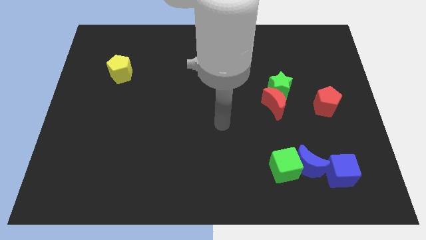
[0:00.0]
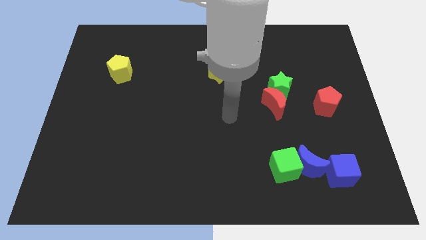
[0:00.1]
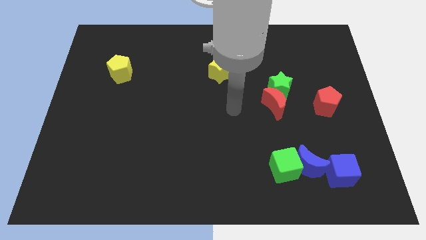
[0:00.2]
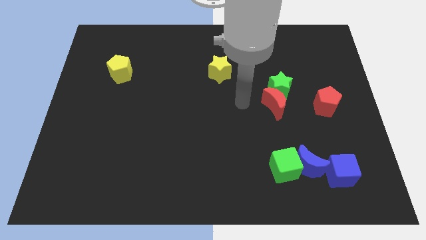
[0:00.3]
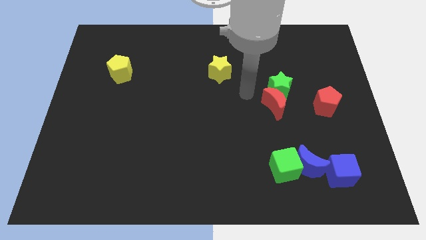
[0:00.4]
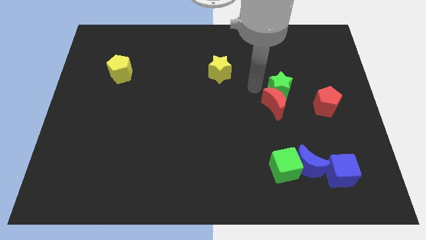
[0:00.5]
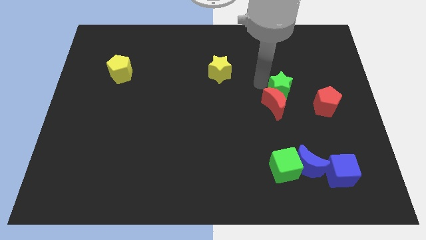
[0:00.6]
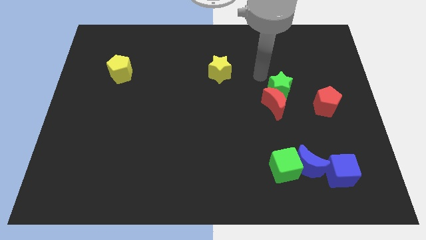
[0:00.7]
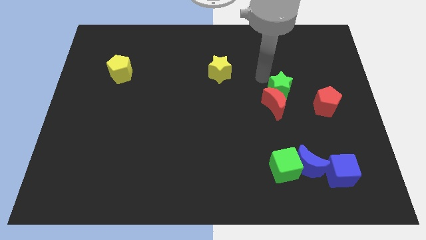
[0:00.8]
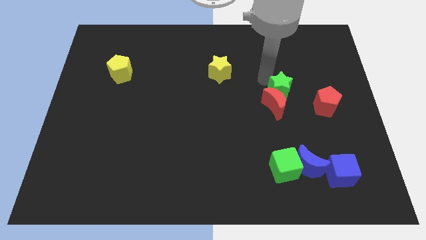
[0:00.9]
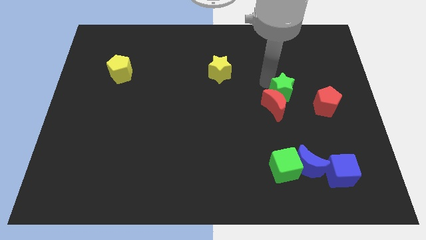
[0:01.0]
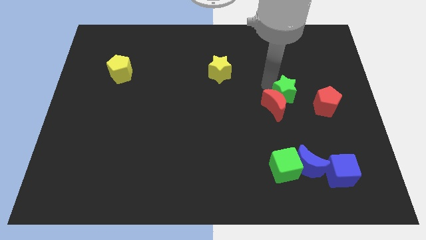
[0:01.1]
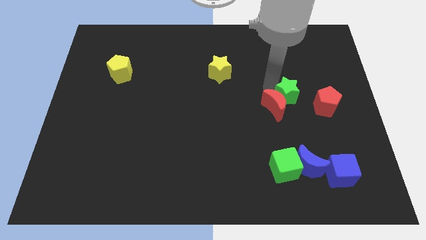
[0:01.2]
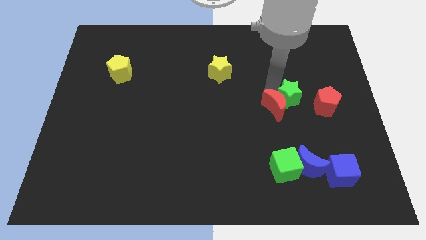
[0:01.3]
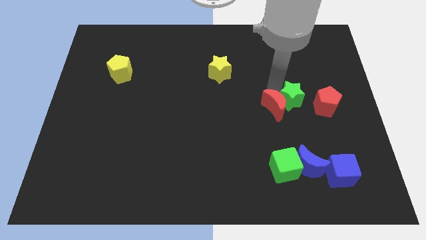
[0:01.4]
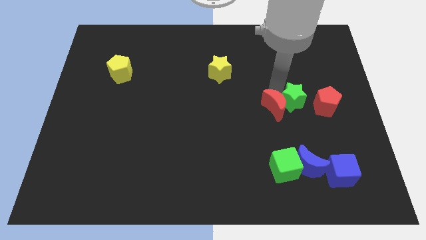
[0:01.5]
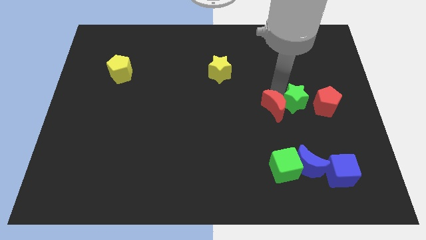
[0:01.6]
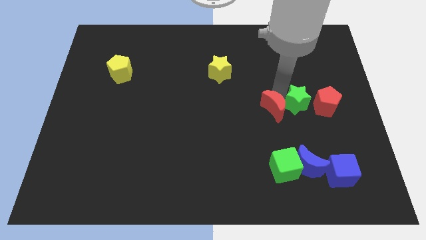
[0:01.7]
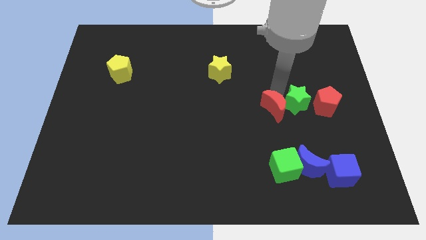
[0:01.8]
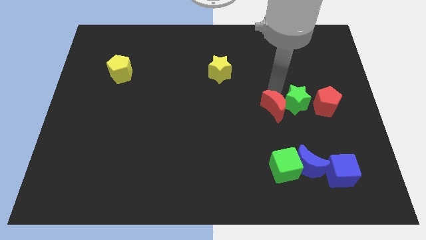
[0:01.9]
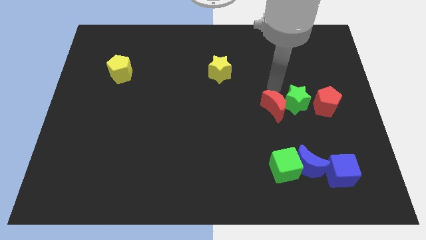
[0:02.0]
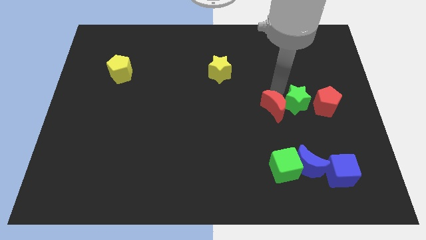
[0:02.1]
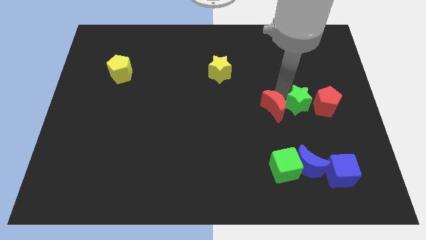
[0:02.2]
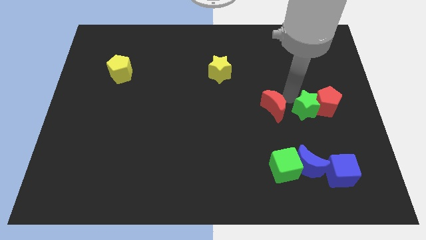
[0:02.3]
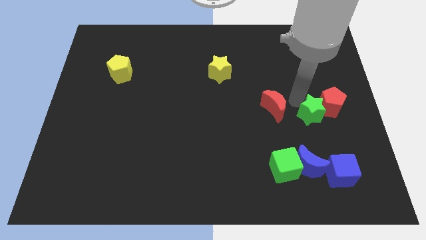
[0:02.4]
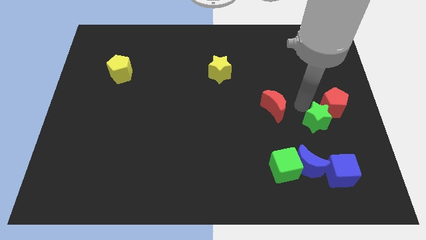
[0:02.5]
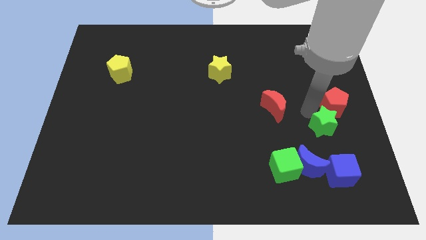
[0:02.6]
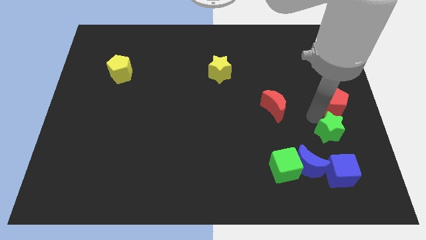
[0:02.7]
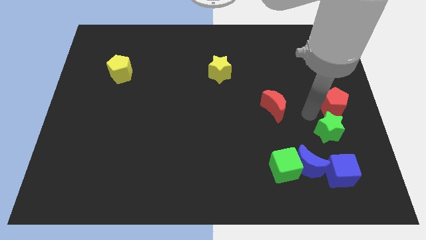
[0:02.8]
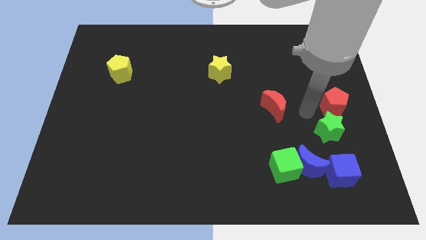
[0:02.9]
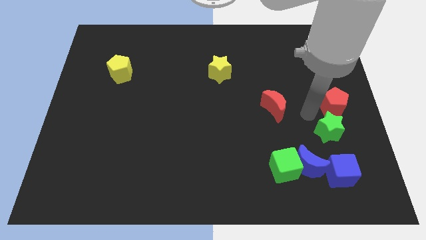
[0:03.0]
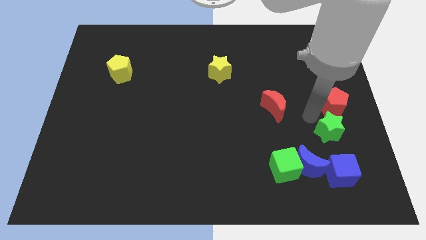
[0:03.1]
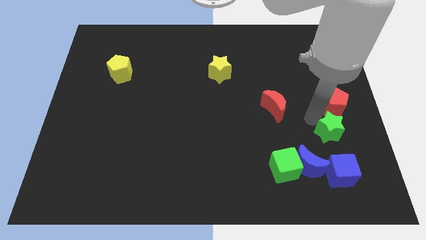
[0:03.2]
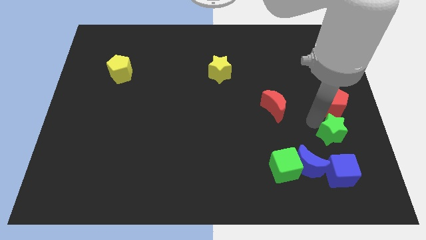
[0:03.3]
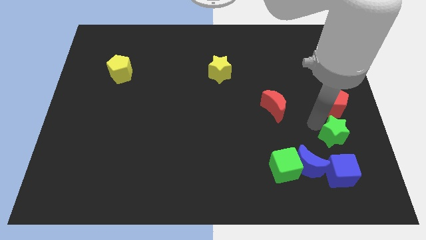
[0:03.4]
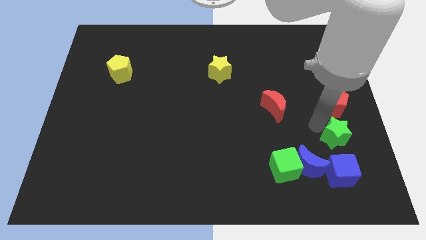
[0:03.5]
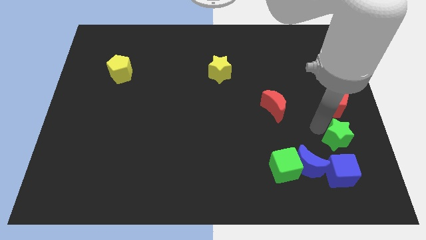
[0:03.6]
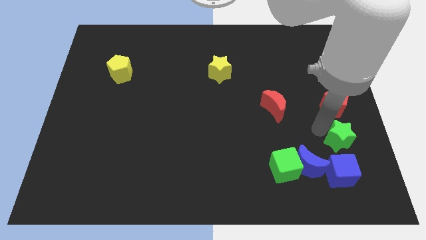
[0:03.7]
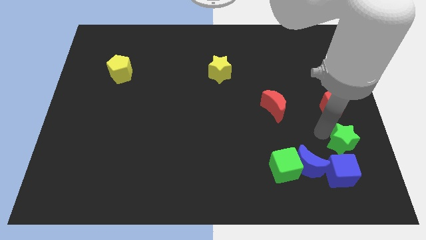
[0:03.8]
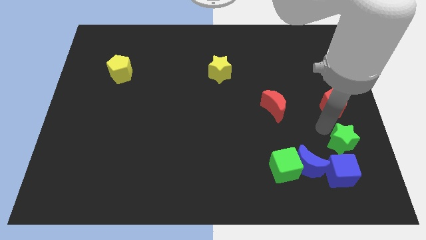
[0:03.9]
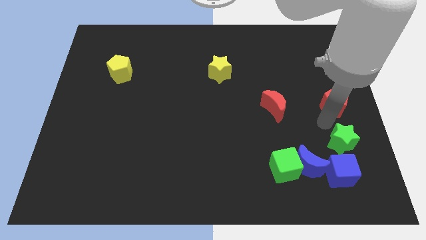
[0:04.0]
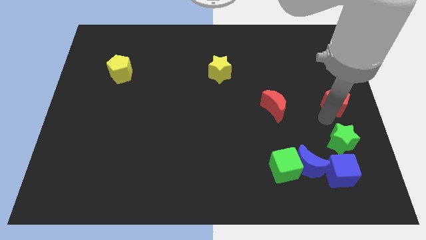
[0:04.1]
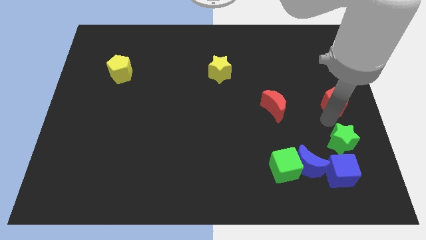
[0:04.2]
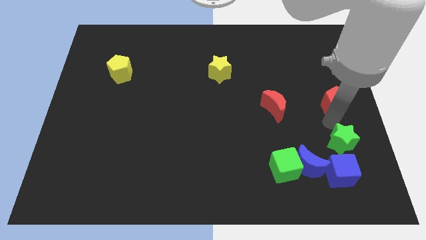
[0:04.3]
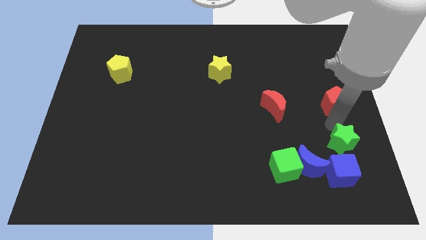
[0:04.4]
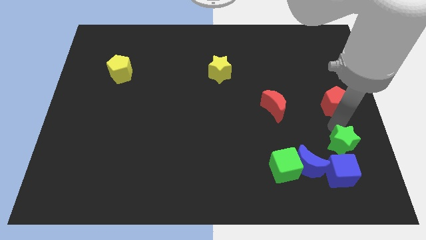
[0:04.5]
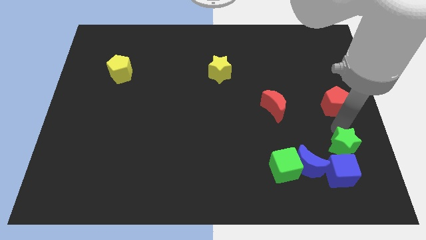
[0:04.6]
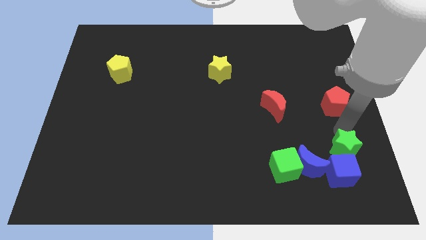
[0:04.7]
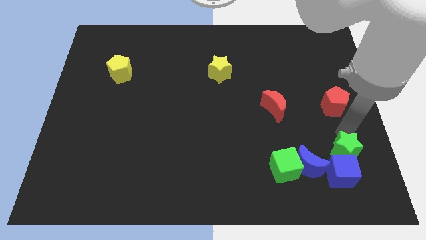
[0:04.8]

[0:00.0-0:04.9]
move the green star to the right of the green cube

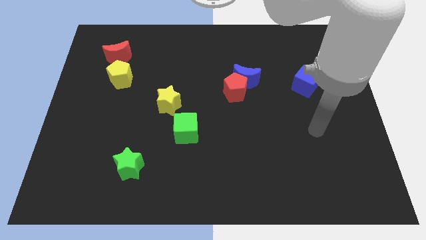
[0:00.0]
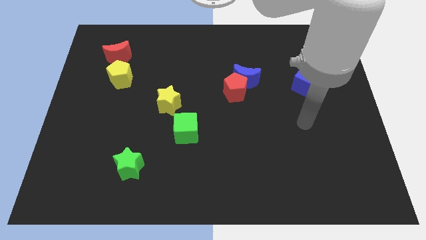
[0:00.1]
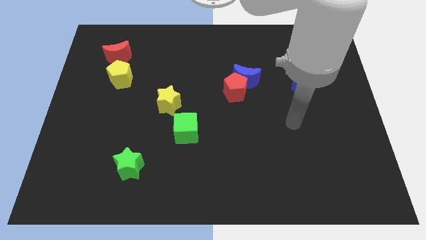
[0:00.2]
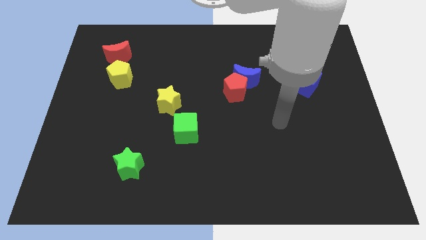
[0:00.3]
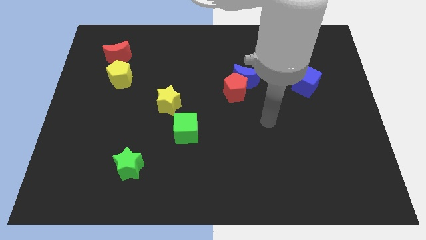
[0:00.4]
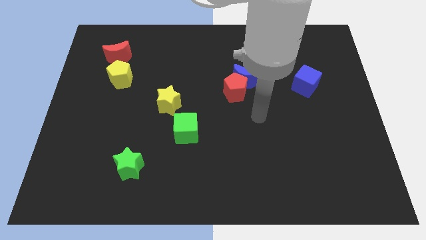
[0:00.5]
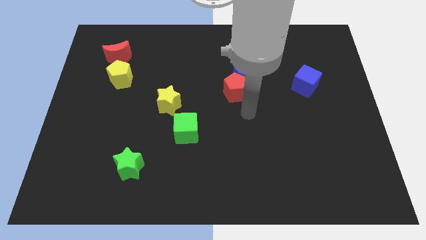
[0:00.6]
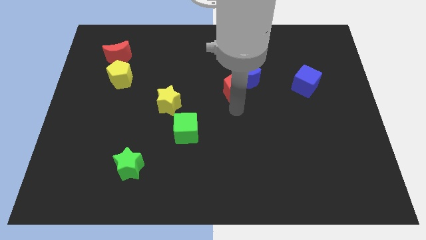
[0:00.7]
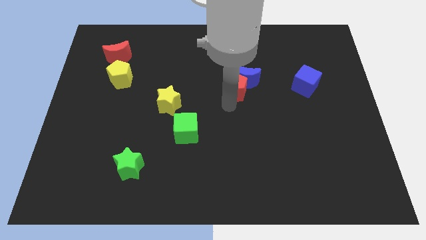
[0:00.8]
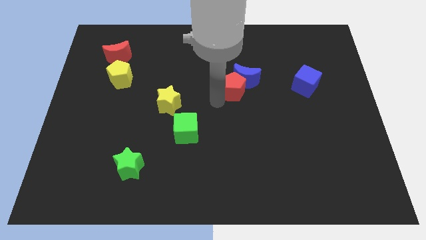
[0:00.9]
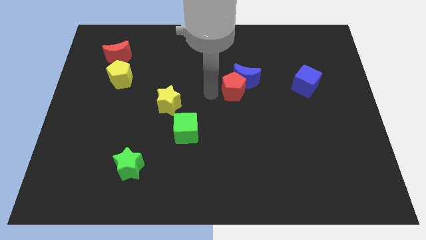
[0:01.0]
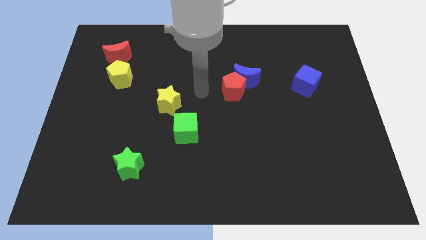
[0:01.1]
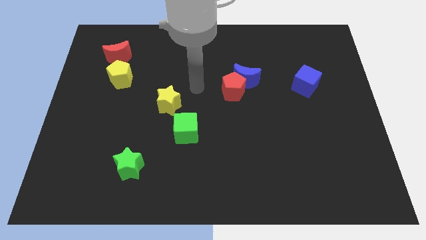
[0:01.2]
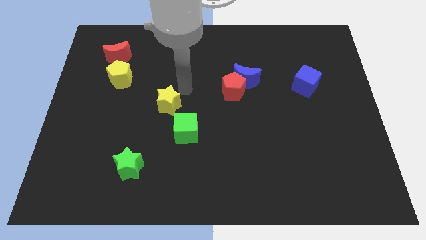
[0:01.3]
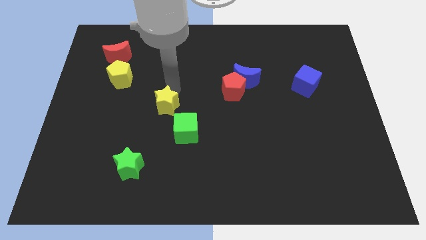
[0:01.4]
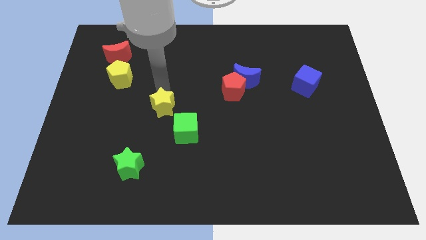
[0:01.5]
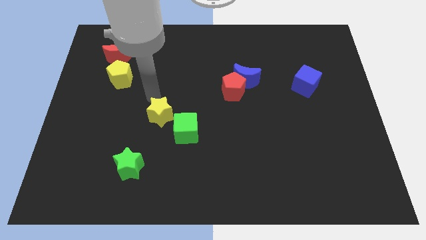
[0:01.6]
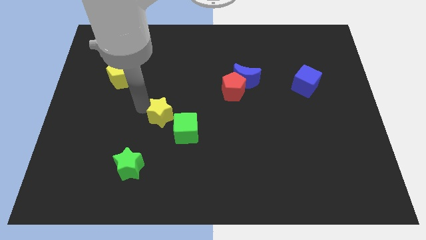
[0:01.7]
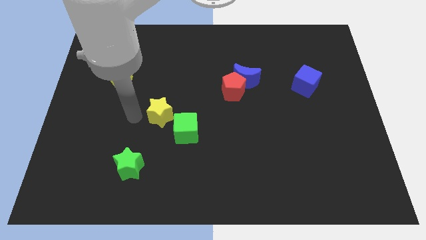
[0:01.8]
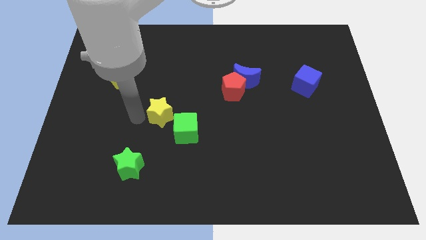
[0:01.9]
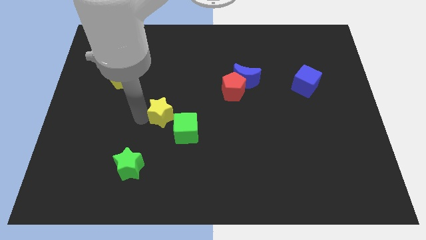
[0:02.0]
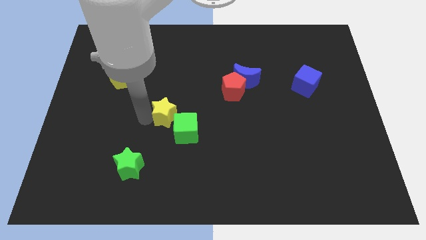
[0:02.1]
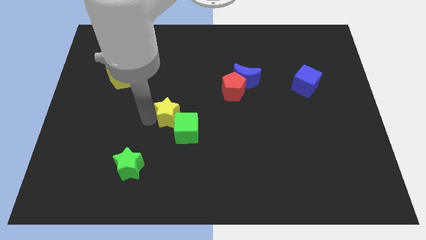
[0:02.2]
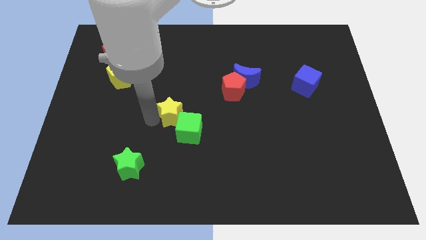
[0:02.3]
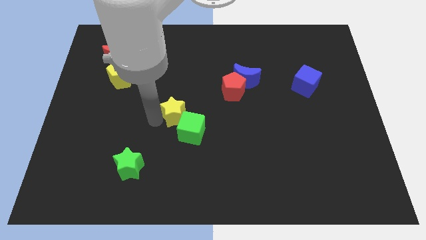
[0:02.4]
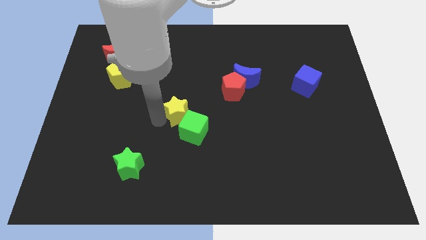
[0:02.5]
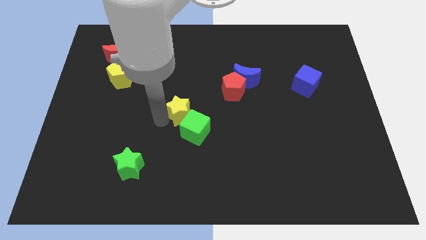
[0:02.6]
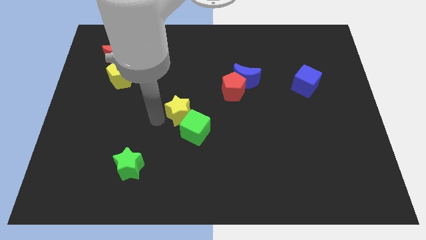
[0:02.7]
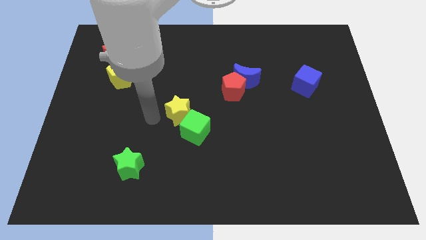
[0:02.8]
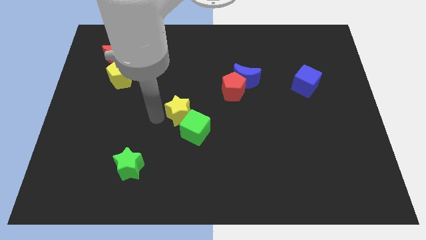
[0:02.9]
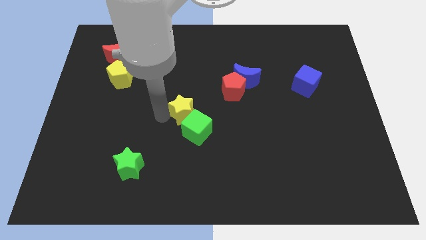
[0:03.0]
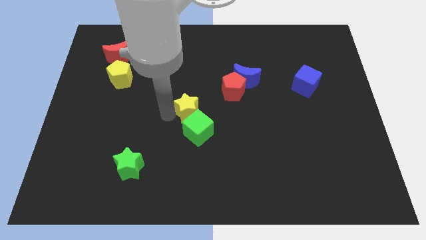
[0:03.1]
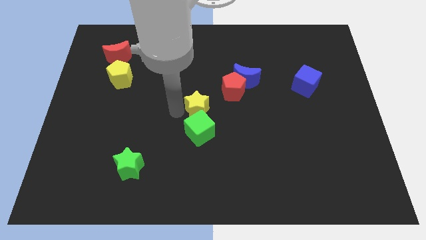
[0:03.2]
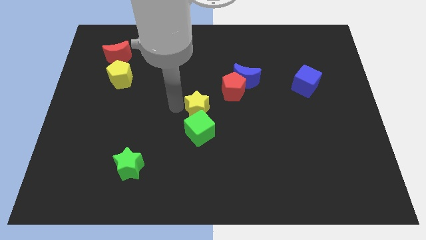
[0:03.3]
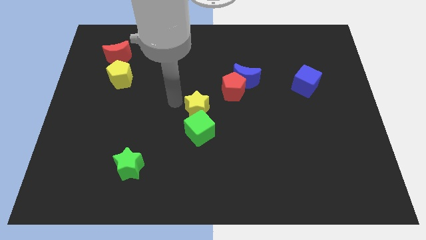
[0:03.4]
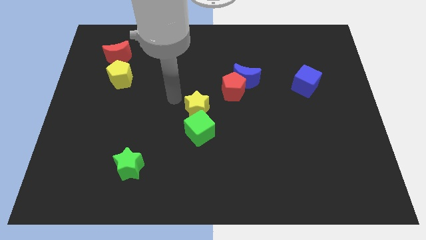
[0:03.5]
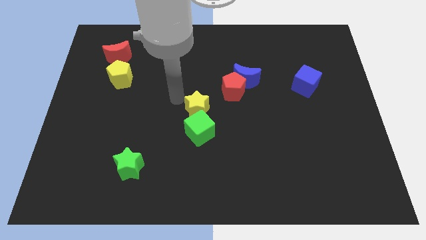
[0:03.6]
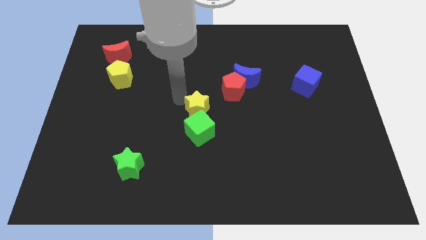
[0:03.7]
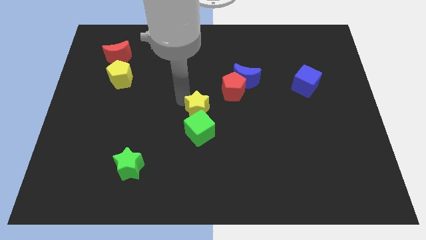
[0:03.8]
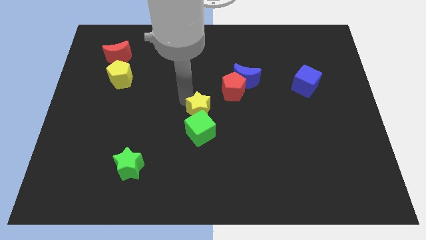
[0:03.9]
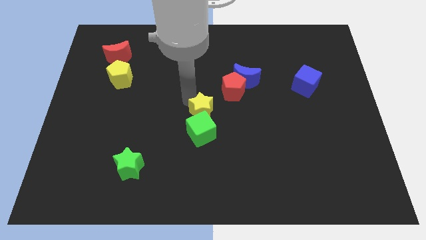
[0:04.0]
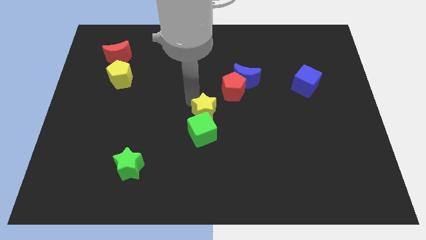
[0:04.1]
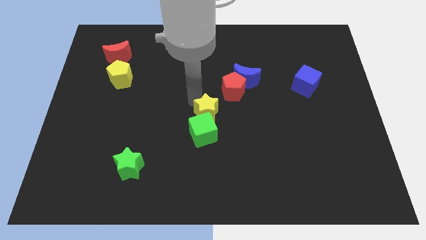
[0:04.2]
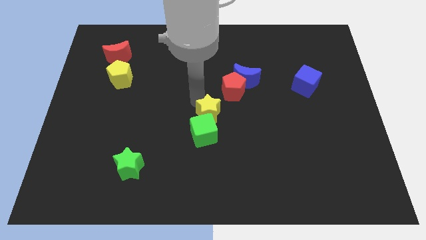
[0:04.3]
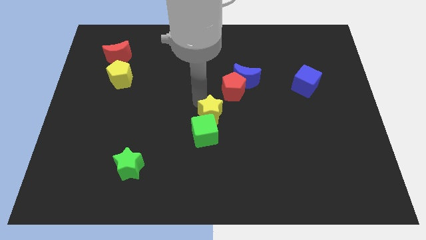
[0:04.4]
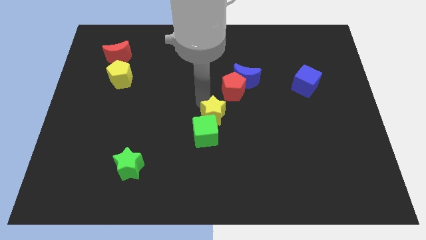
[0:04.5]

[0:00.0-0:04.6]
push the yellow star below the red pentagon
